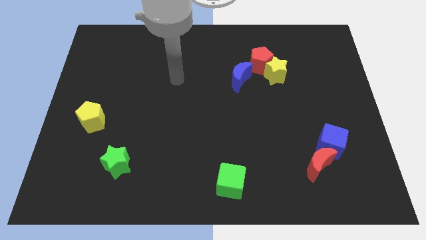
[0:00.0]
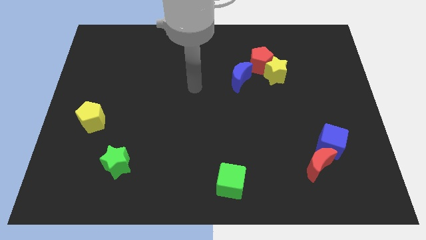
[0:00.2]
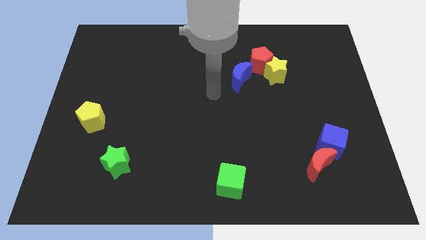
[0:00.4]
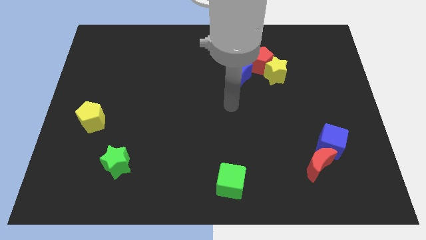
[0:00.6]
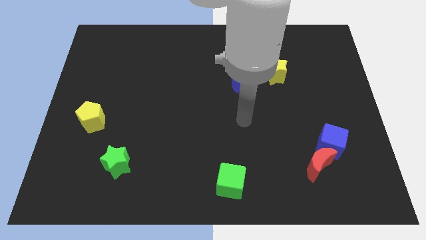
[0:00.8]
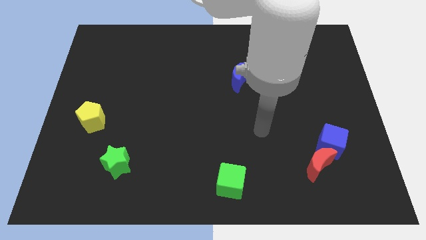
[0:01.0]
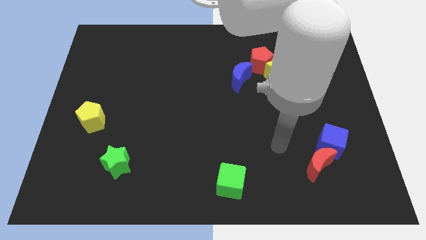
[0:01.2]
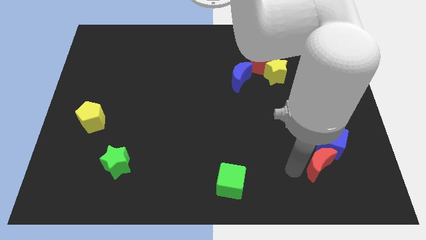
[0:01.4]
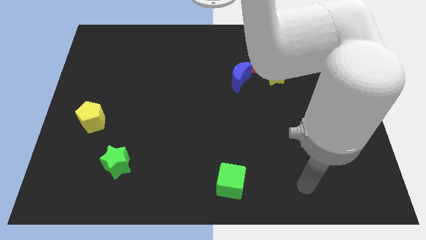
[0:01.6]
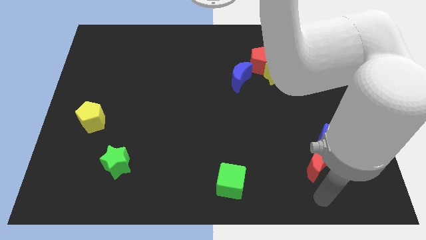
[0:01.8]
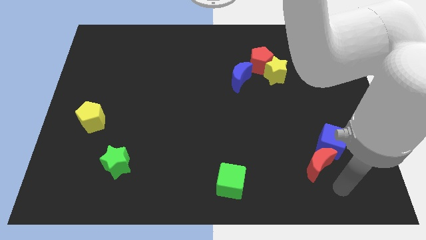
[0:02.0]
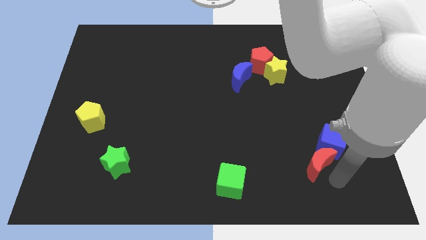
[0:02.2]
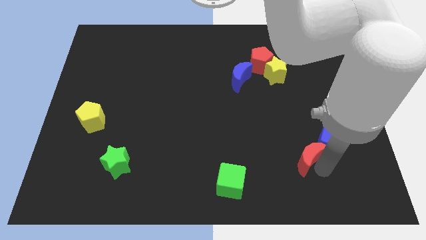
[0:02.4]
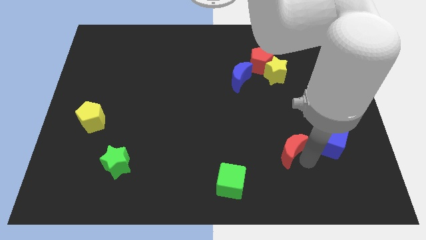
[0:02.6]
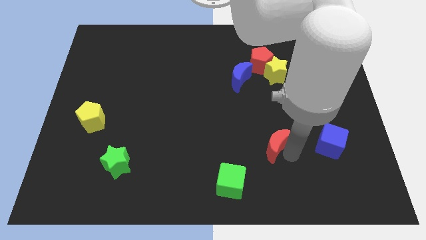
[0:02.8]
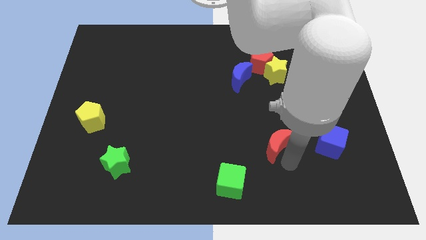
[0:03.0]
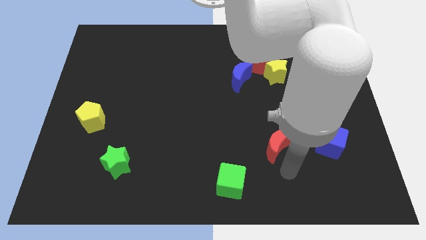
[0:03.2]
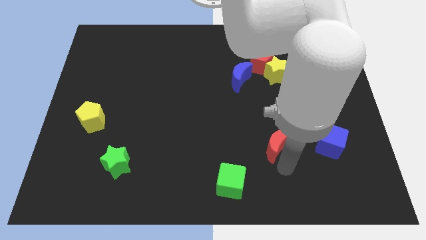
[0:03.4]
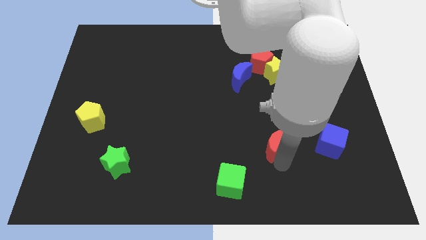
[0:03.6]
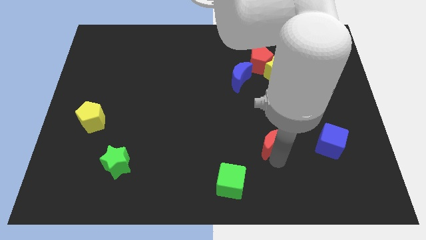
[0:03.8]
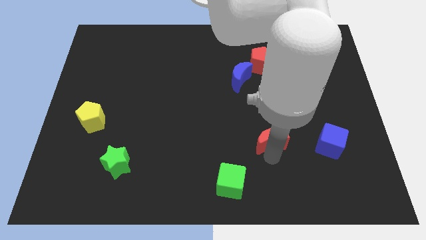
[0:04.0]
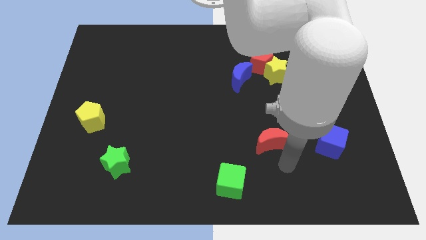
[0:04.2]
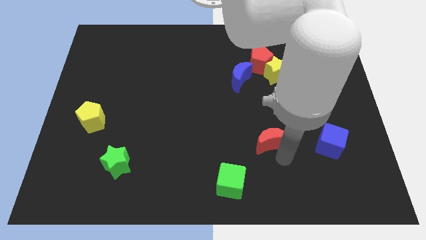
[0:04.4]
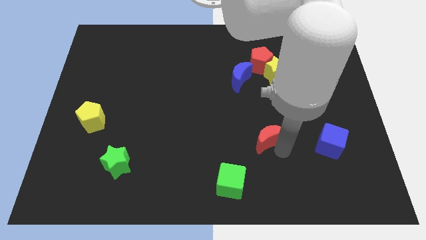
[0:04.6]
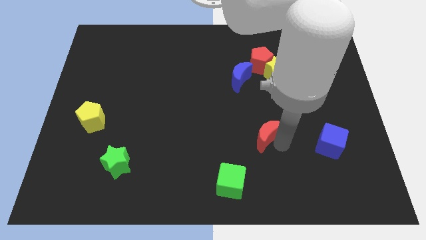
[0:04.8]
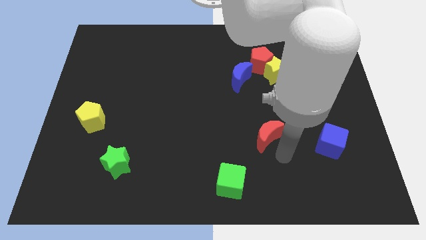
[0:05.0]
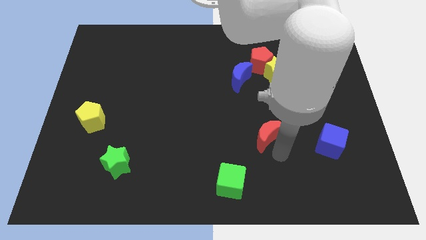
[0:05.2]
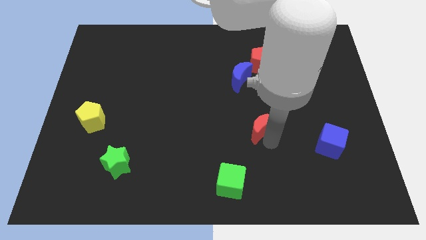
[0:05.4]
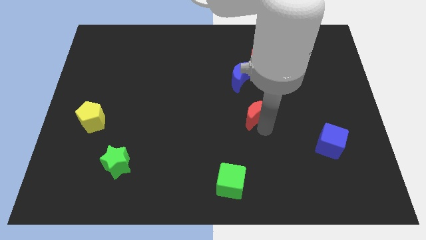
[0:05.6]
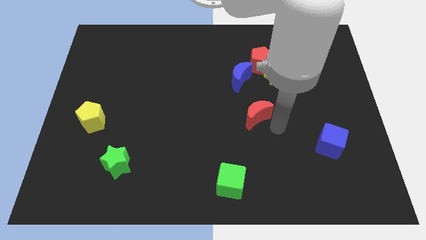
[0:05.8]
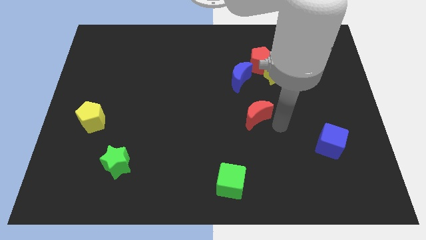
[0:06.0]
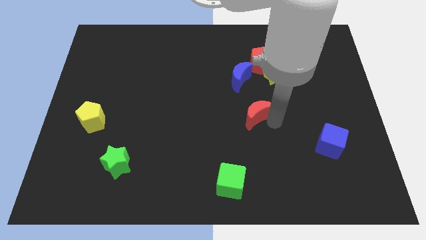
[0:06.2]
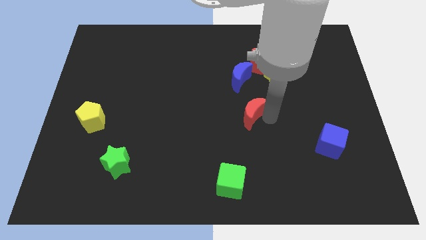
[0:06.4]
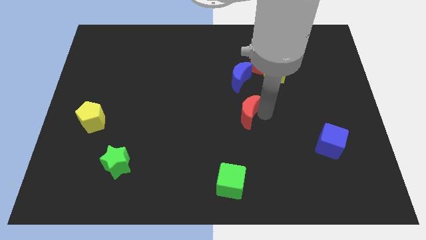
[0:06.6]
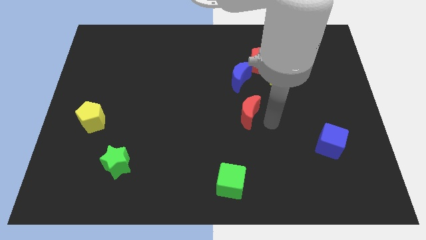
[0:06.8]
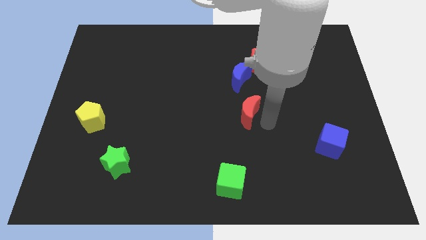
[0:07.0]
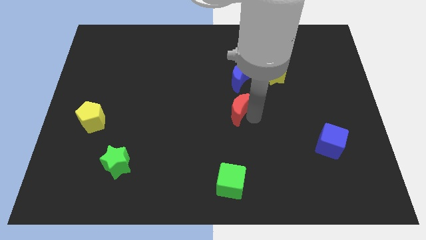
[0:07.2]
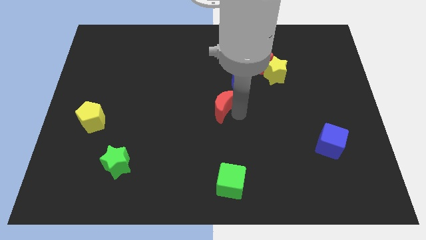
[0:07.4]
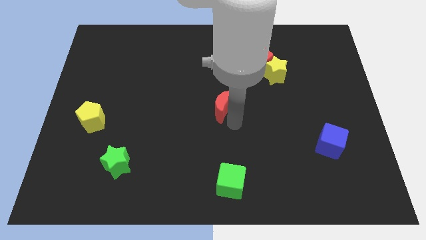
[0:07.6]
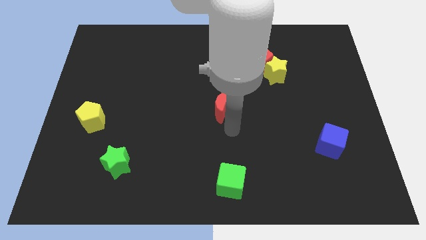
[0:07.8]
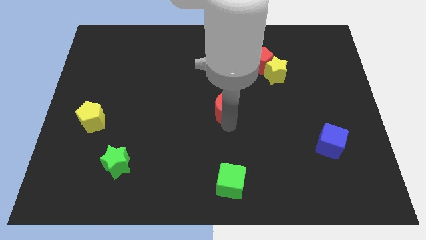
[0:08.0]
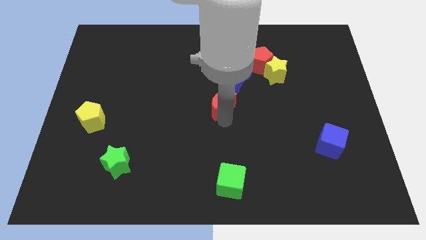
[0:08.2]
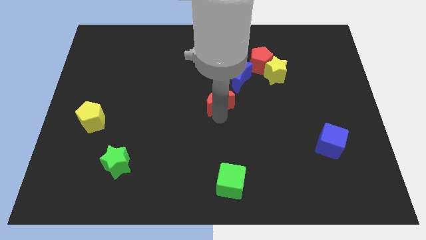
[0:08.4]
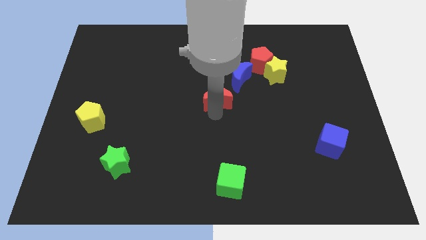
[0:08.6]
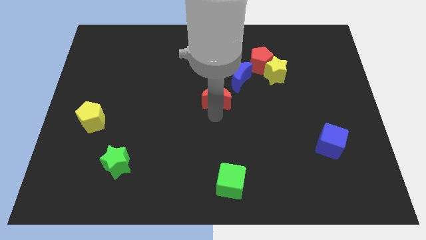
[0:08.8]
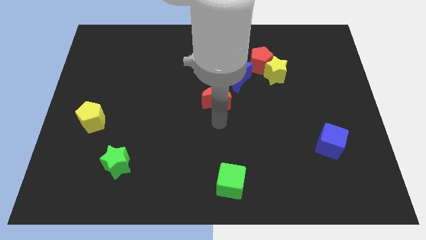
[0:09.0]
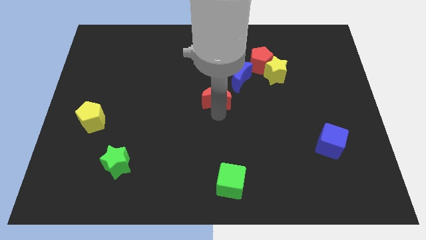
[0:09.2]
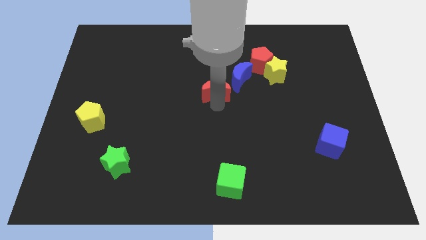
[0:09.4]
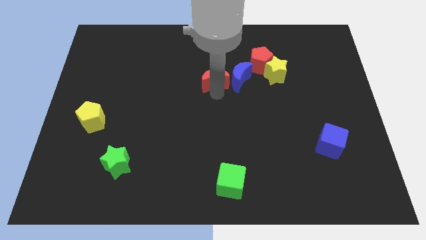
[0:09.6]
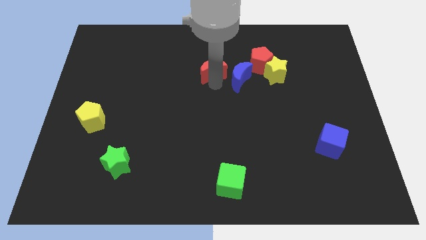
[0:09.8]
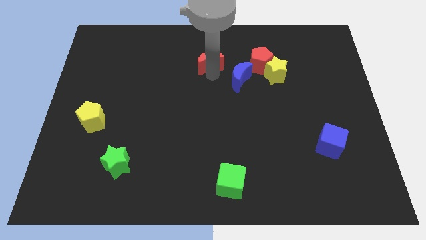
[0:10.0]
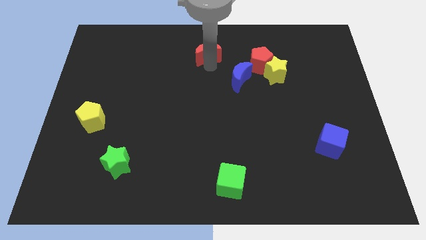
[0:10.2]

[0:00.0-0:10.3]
put the red moon to the top side

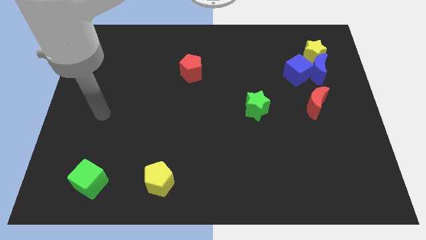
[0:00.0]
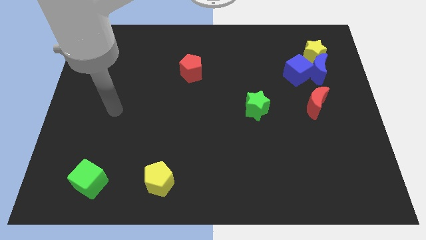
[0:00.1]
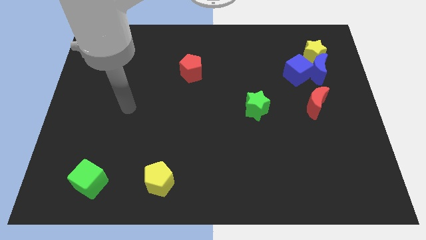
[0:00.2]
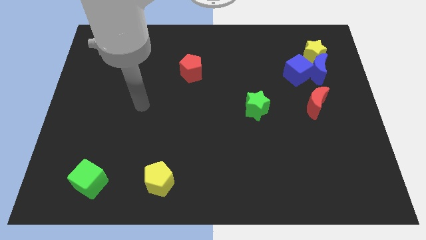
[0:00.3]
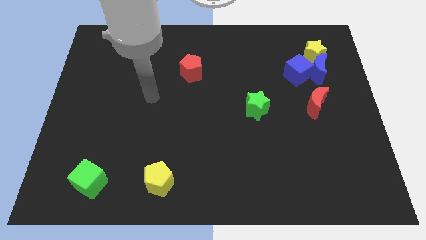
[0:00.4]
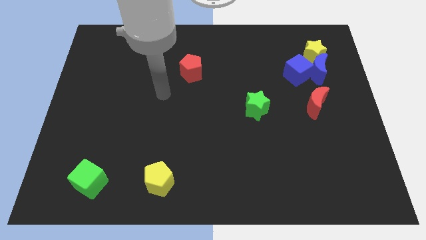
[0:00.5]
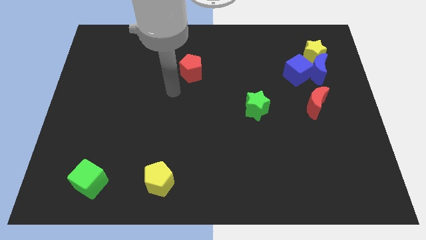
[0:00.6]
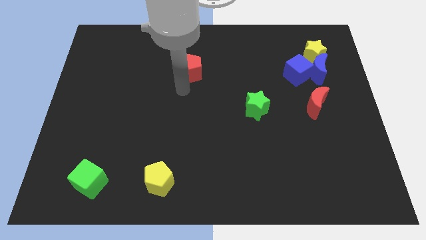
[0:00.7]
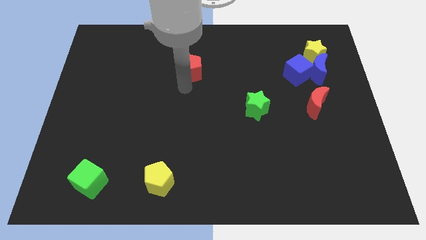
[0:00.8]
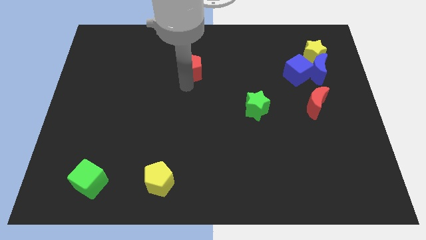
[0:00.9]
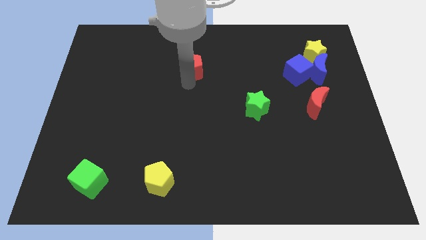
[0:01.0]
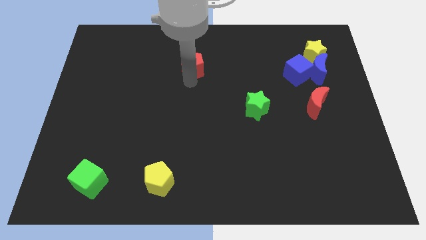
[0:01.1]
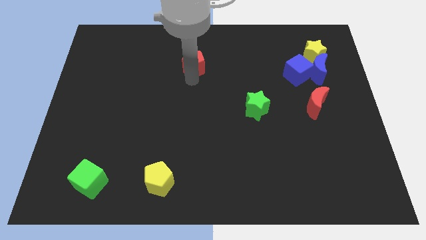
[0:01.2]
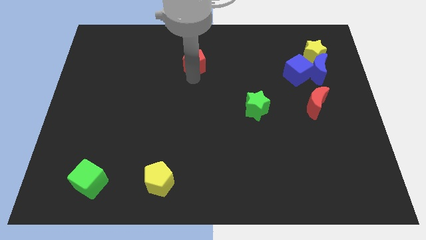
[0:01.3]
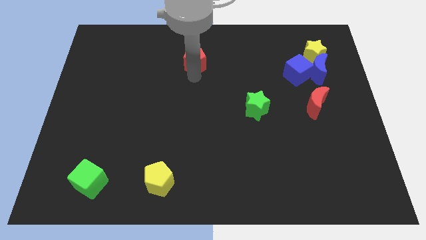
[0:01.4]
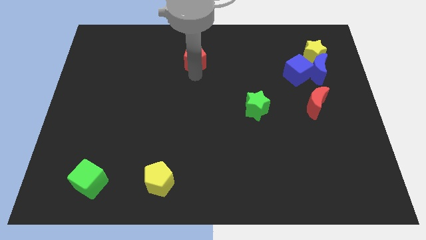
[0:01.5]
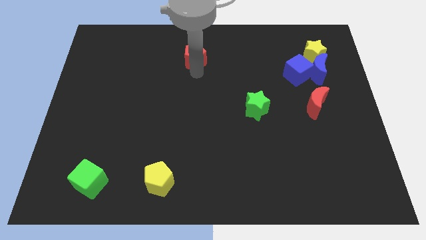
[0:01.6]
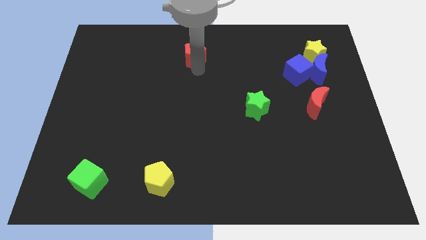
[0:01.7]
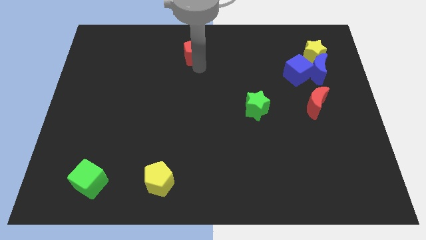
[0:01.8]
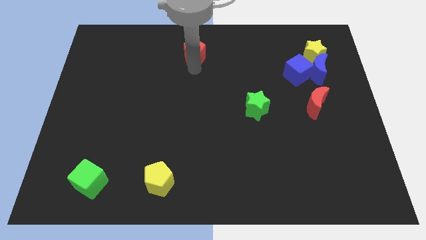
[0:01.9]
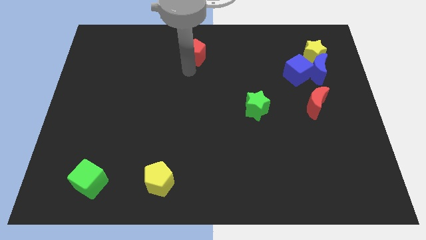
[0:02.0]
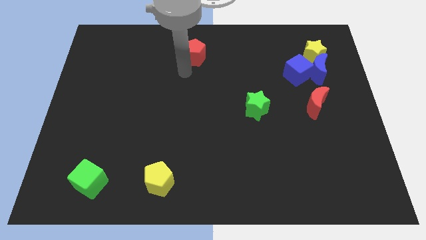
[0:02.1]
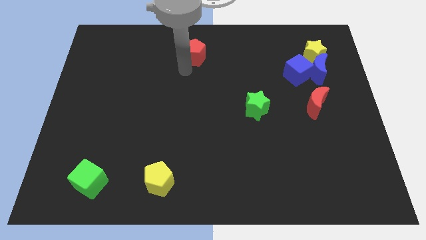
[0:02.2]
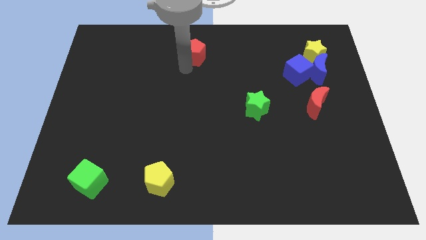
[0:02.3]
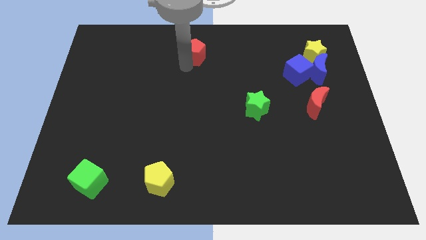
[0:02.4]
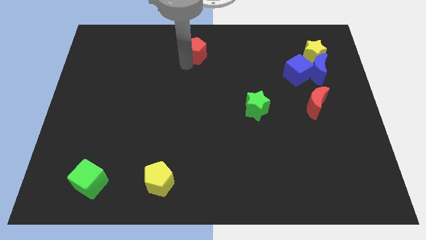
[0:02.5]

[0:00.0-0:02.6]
push the red pentagon to the top
